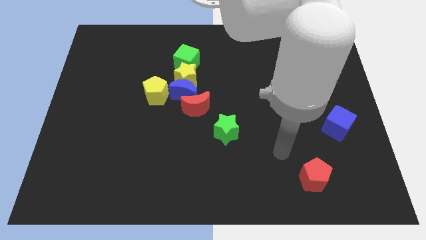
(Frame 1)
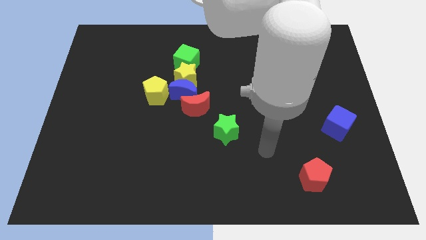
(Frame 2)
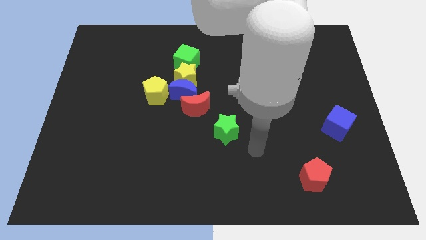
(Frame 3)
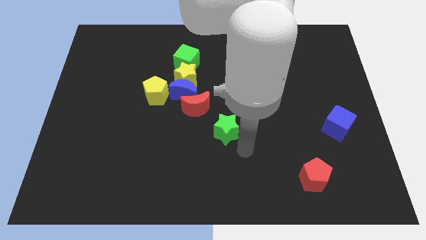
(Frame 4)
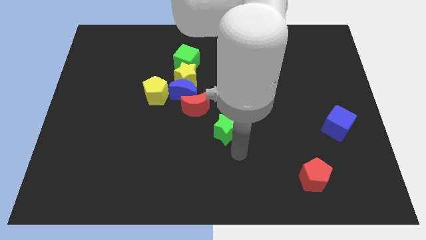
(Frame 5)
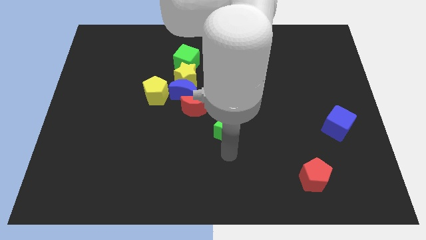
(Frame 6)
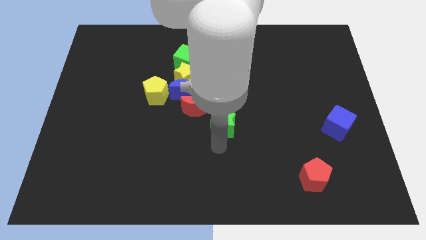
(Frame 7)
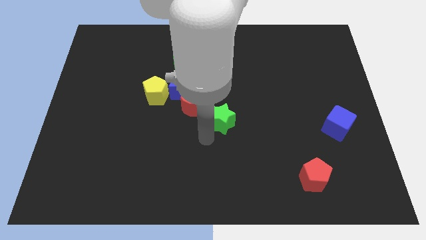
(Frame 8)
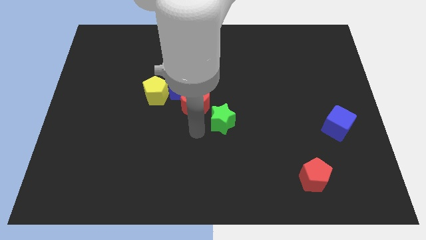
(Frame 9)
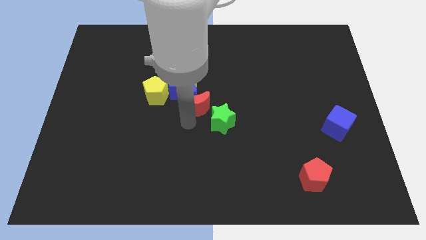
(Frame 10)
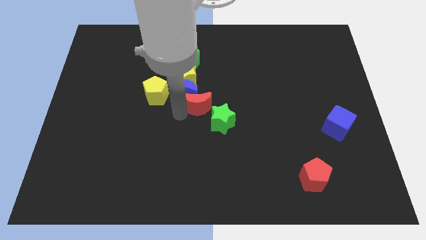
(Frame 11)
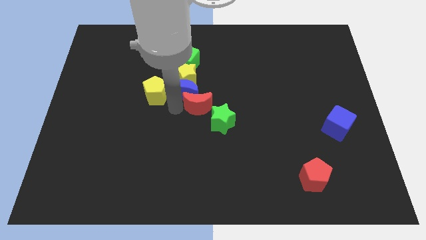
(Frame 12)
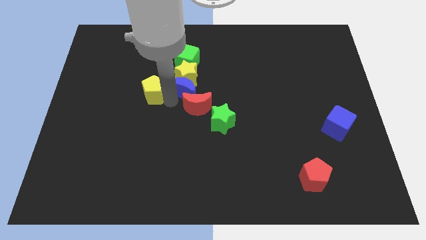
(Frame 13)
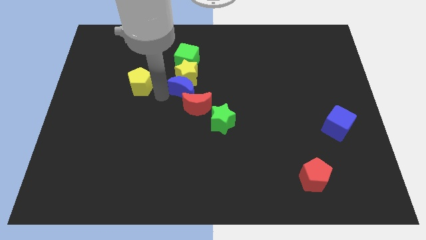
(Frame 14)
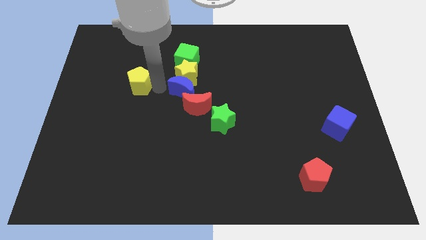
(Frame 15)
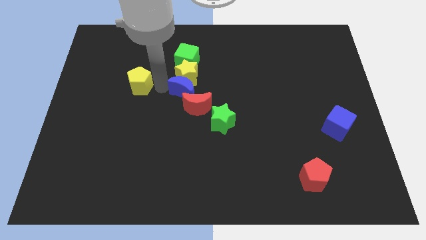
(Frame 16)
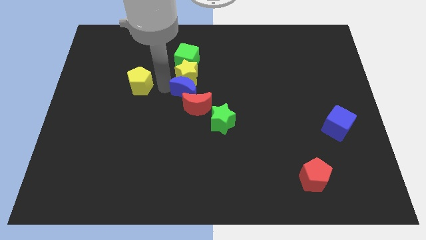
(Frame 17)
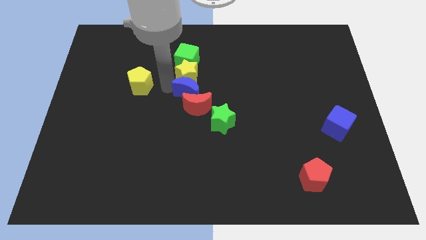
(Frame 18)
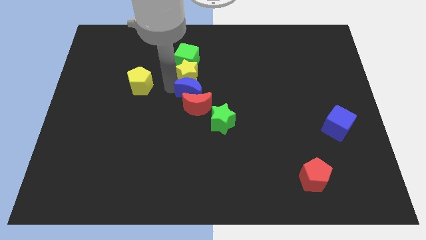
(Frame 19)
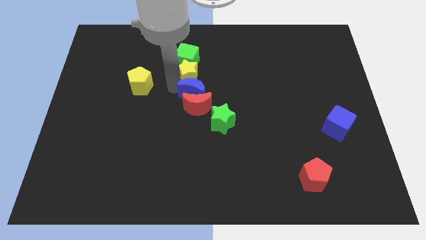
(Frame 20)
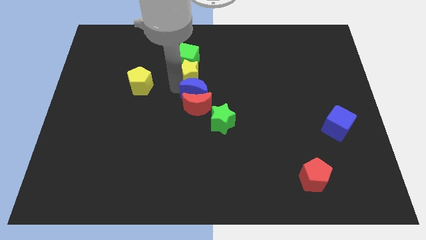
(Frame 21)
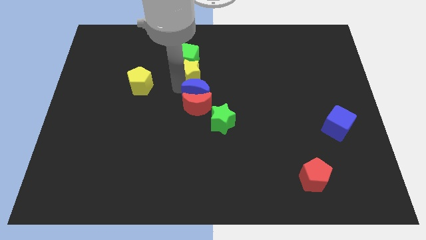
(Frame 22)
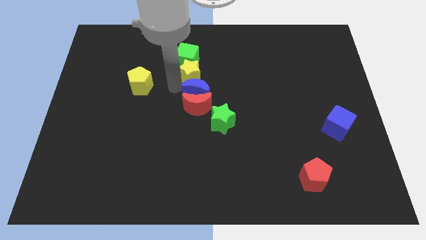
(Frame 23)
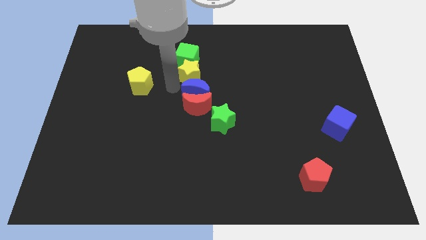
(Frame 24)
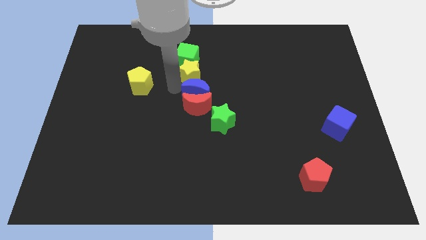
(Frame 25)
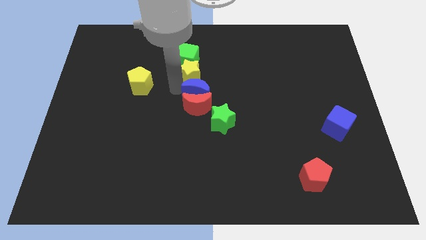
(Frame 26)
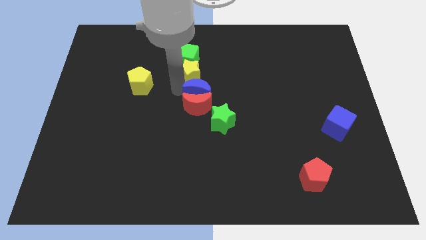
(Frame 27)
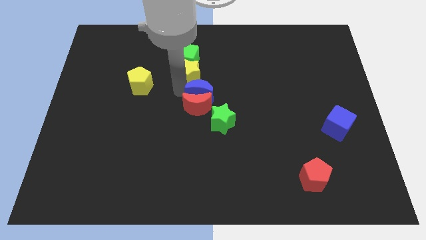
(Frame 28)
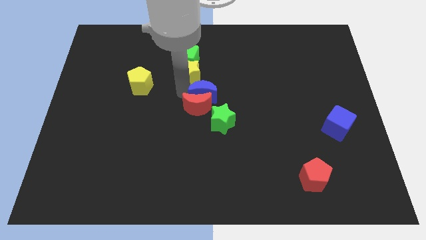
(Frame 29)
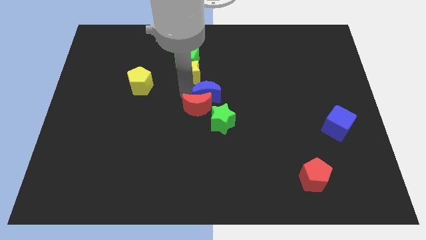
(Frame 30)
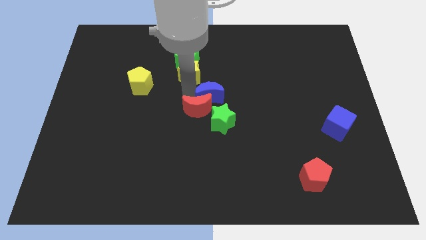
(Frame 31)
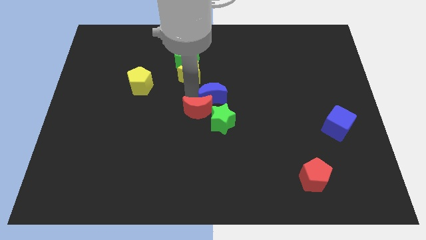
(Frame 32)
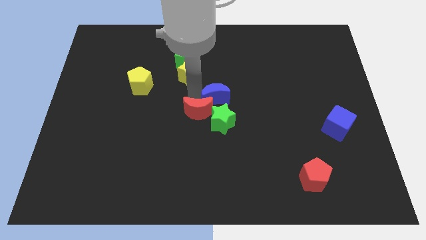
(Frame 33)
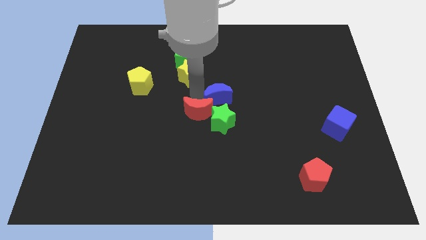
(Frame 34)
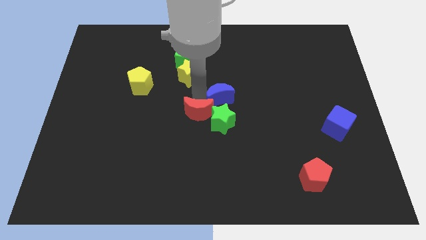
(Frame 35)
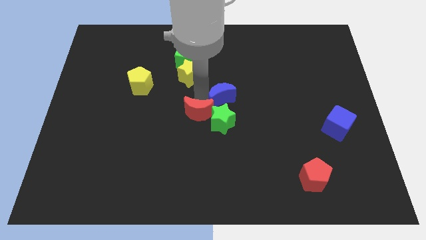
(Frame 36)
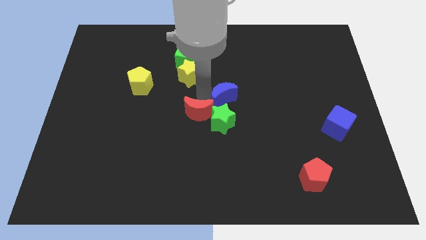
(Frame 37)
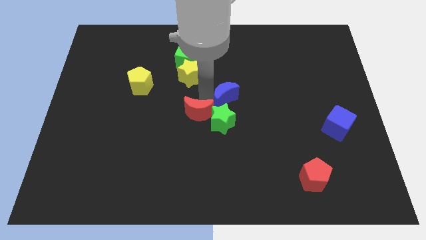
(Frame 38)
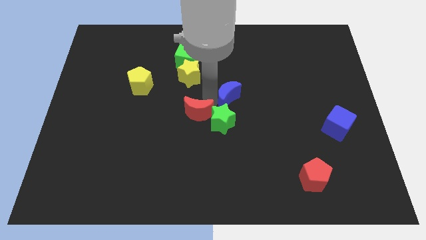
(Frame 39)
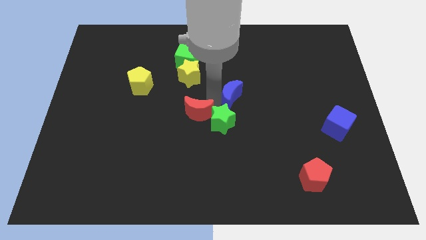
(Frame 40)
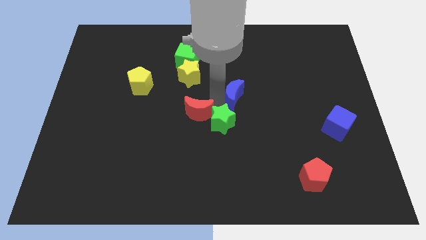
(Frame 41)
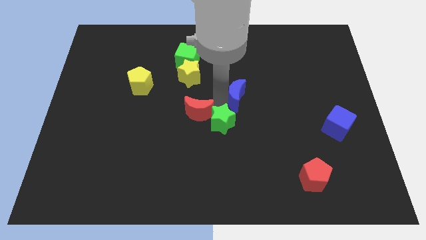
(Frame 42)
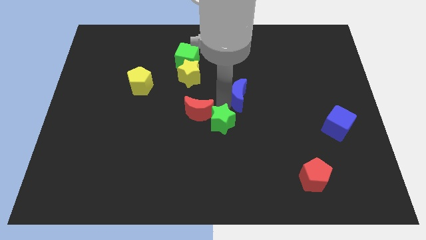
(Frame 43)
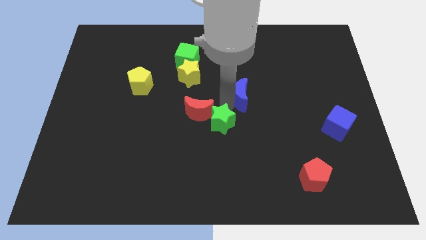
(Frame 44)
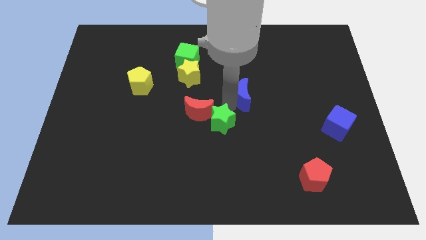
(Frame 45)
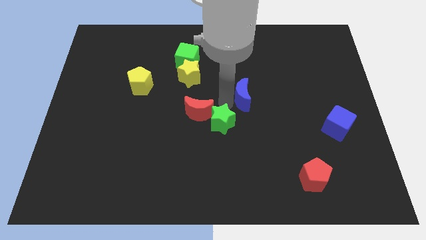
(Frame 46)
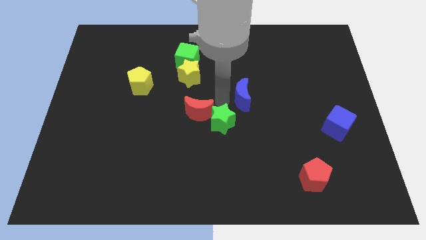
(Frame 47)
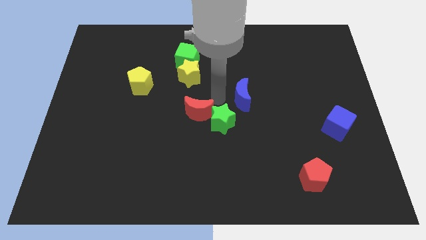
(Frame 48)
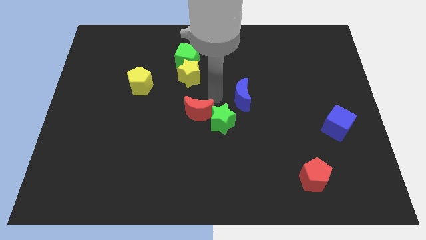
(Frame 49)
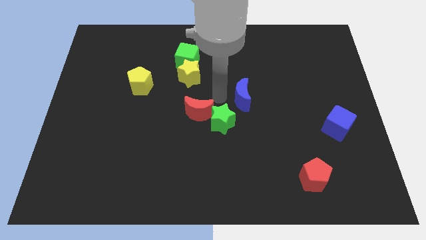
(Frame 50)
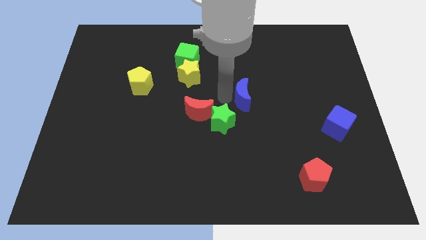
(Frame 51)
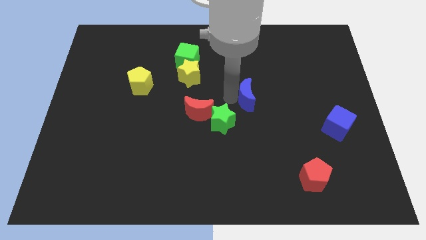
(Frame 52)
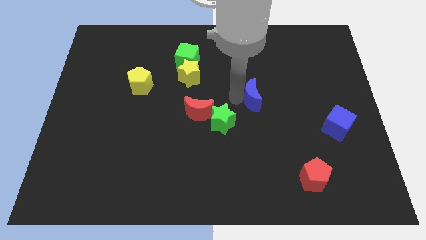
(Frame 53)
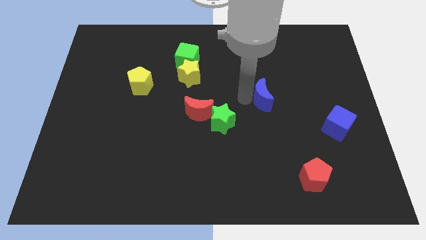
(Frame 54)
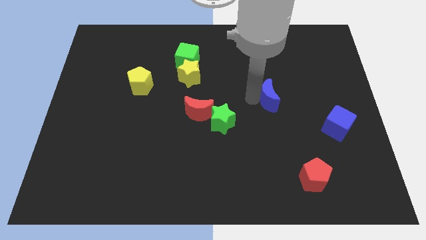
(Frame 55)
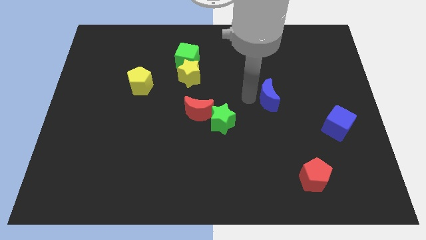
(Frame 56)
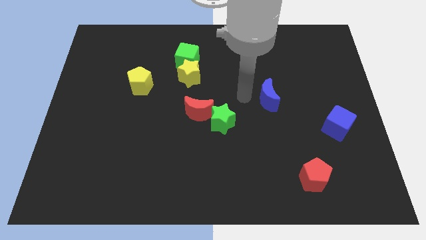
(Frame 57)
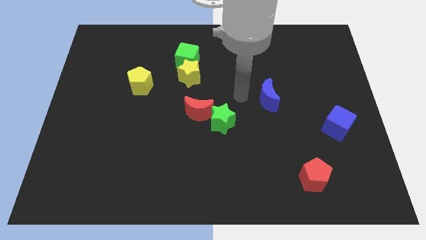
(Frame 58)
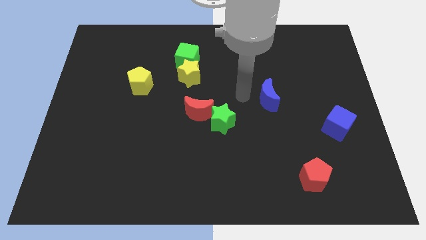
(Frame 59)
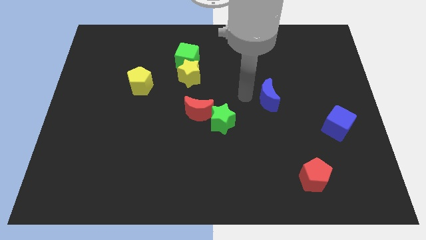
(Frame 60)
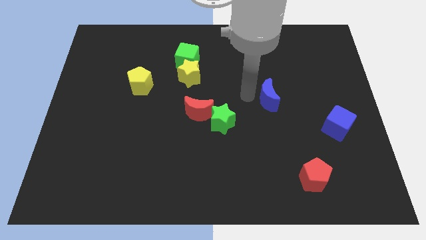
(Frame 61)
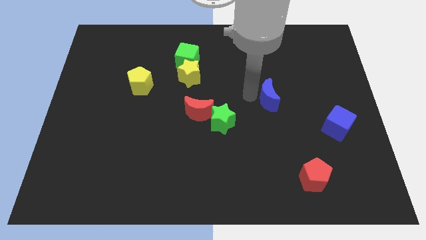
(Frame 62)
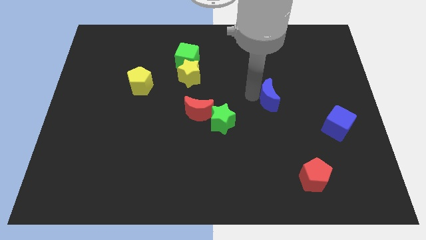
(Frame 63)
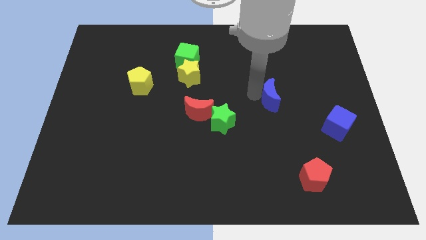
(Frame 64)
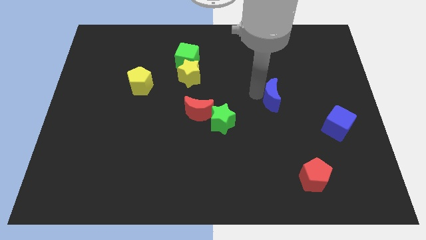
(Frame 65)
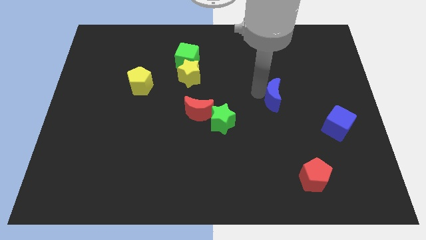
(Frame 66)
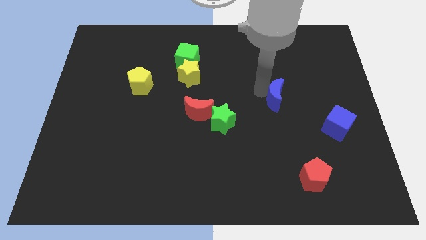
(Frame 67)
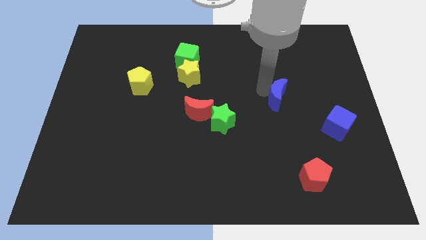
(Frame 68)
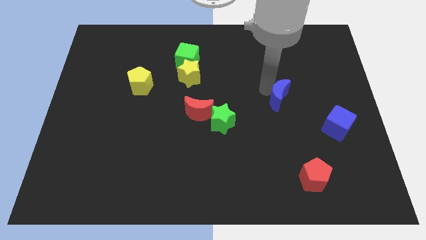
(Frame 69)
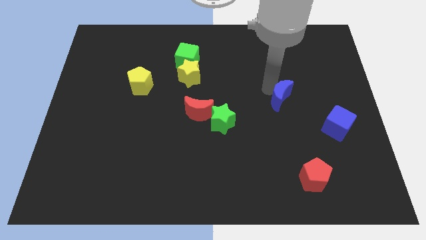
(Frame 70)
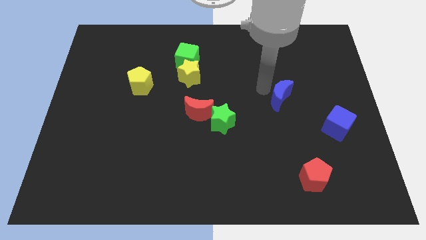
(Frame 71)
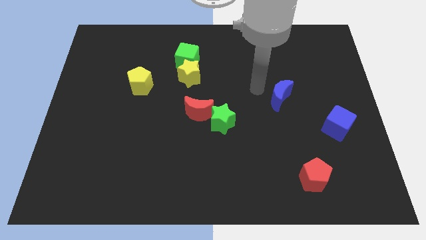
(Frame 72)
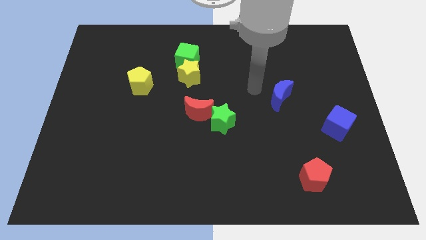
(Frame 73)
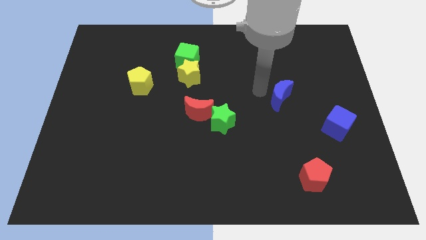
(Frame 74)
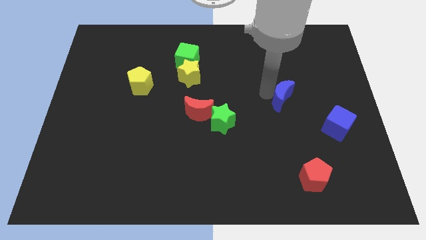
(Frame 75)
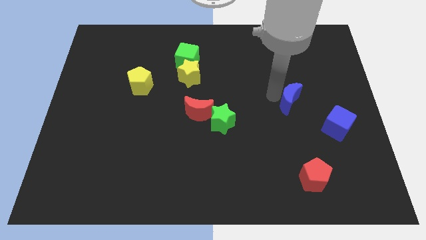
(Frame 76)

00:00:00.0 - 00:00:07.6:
push the blue moon to the top left of the blue cube
